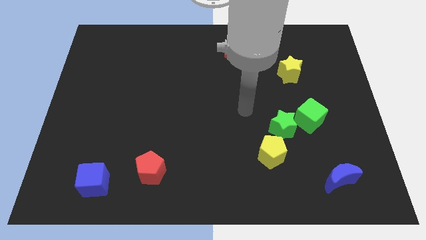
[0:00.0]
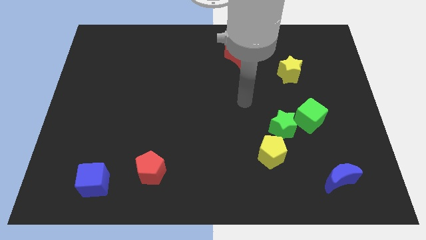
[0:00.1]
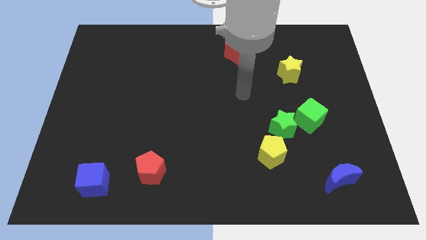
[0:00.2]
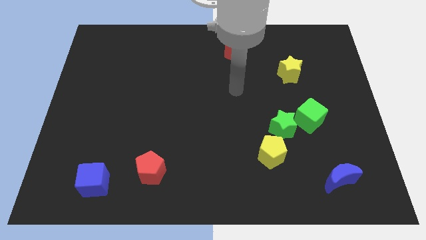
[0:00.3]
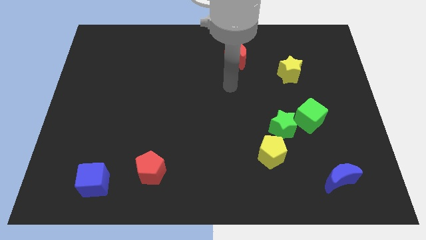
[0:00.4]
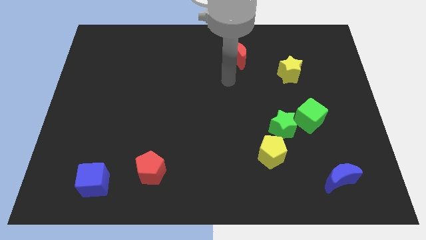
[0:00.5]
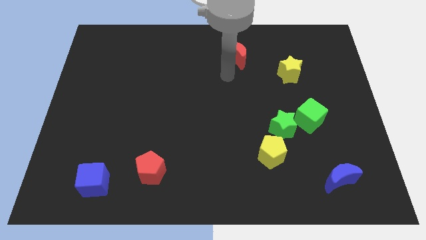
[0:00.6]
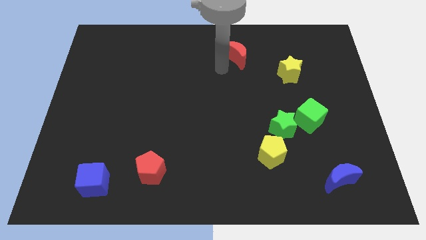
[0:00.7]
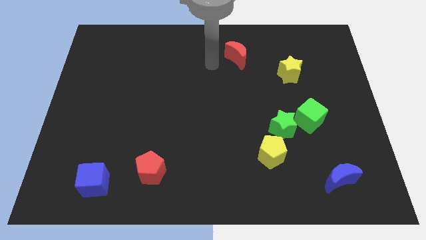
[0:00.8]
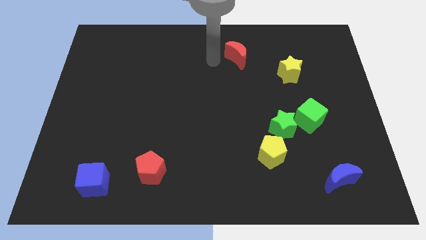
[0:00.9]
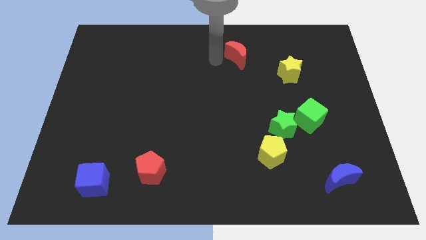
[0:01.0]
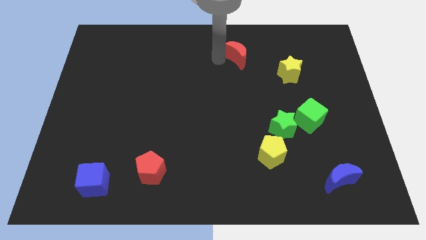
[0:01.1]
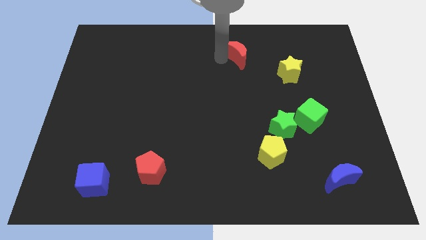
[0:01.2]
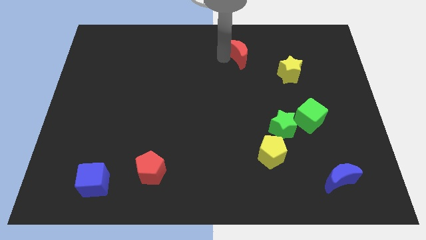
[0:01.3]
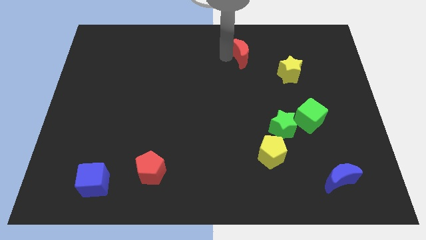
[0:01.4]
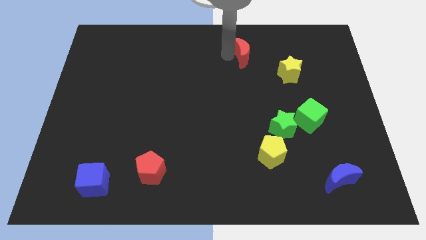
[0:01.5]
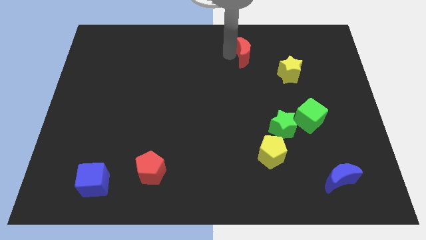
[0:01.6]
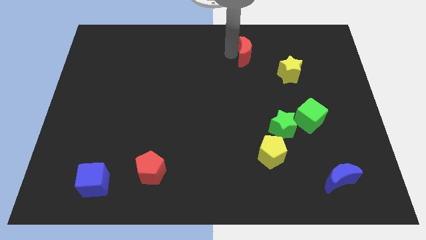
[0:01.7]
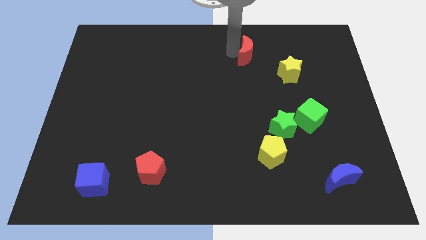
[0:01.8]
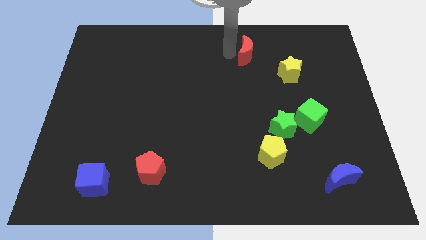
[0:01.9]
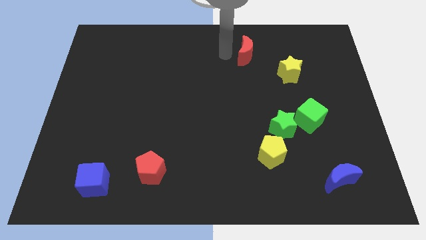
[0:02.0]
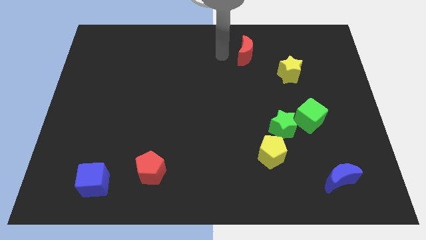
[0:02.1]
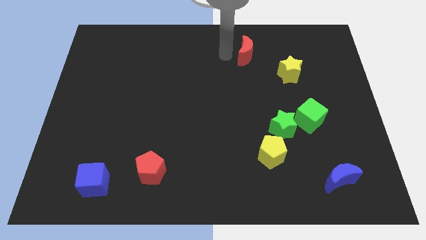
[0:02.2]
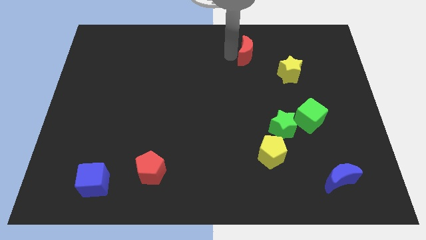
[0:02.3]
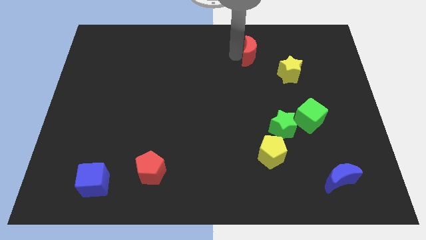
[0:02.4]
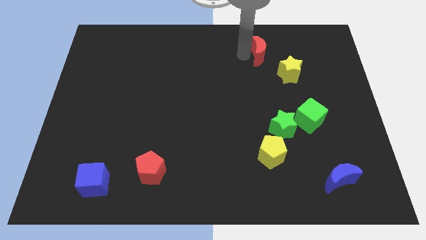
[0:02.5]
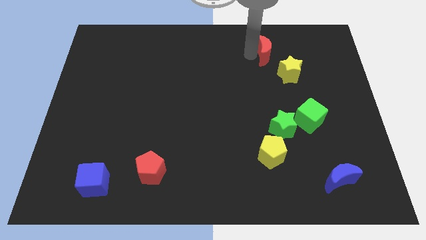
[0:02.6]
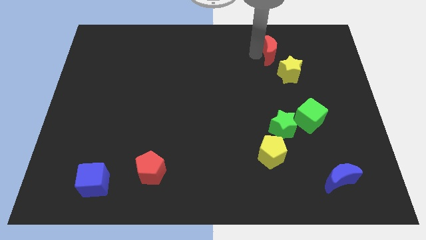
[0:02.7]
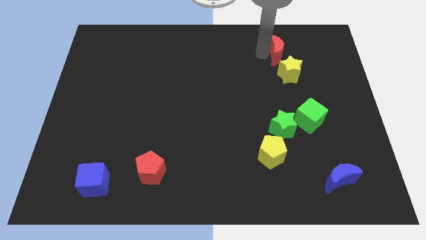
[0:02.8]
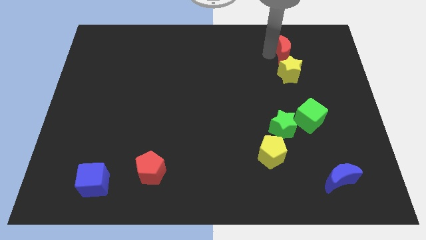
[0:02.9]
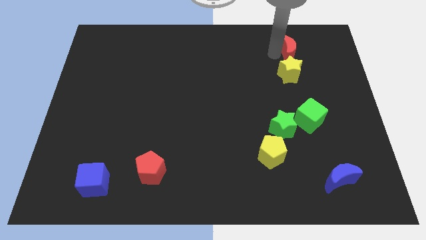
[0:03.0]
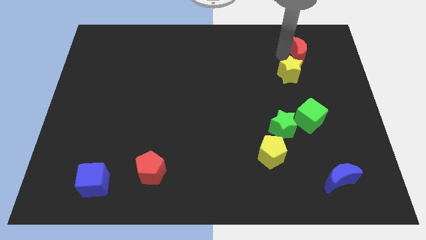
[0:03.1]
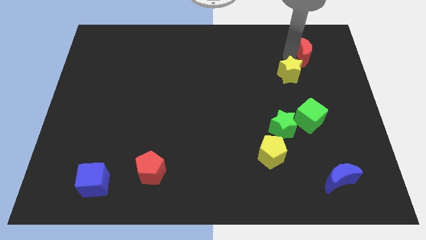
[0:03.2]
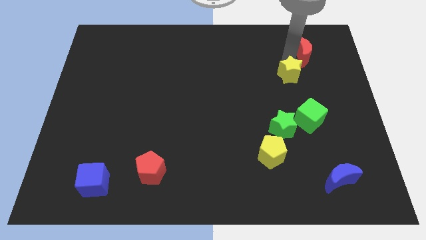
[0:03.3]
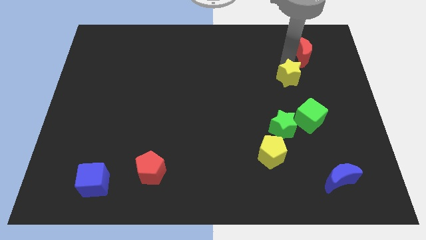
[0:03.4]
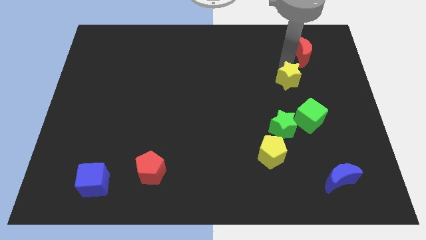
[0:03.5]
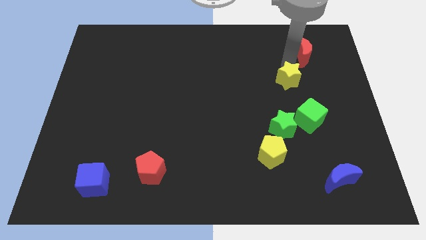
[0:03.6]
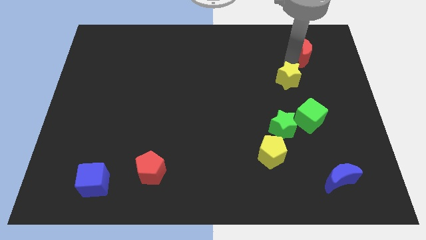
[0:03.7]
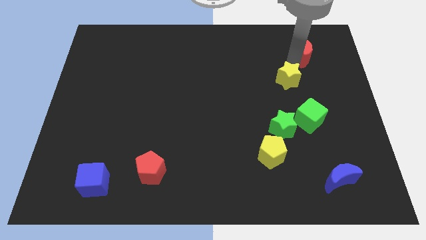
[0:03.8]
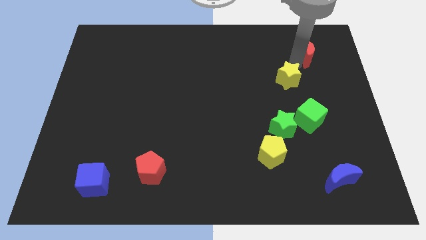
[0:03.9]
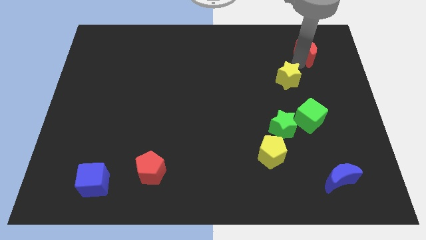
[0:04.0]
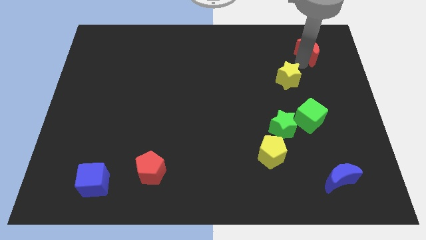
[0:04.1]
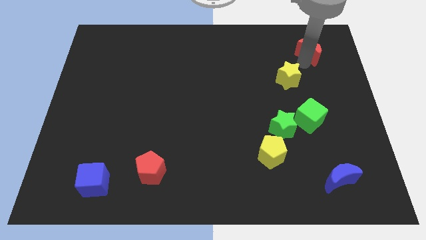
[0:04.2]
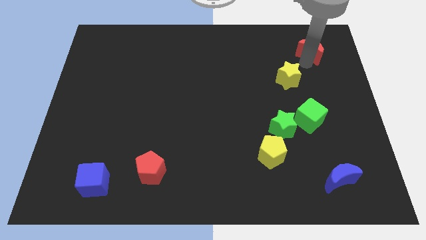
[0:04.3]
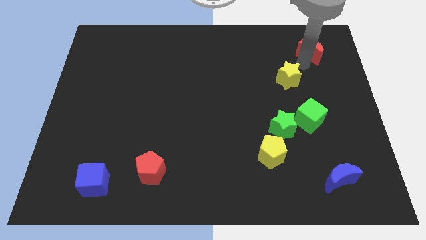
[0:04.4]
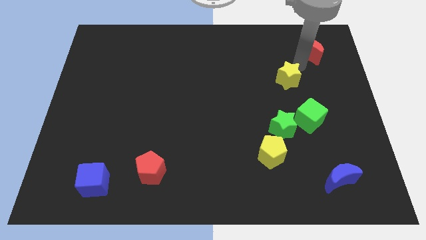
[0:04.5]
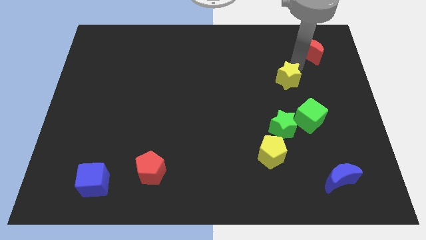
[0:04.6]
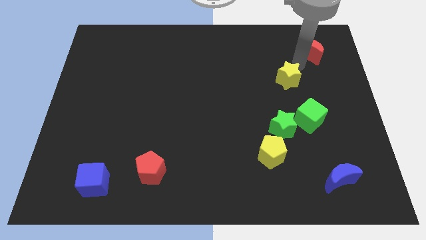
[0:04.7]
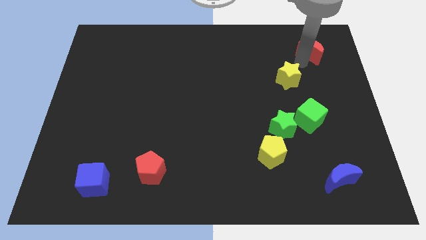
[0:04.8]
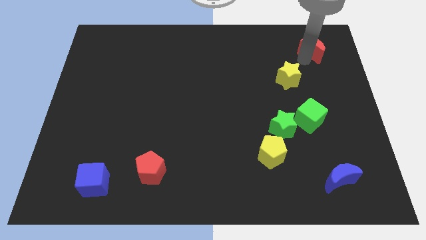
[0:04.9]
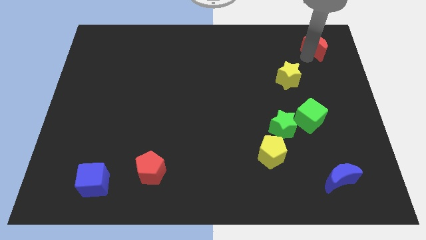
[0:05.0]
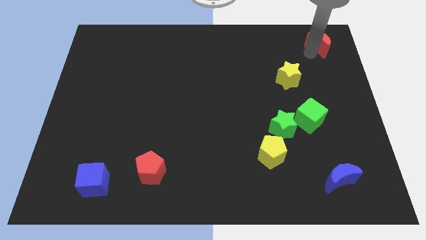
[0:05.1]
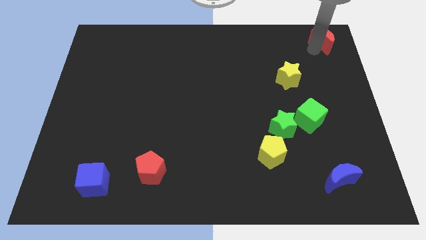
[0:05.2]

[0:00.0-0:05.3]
put the red moon to the upper right corner

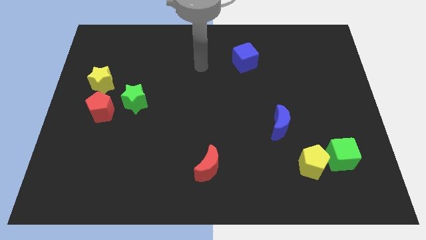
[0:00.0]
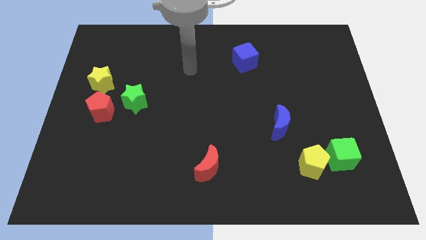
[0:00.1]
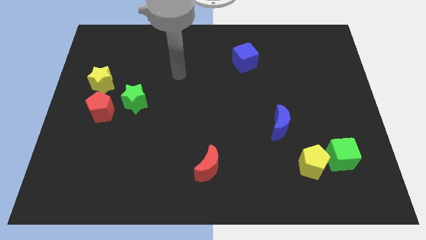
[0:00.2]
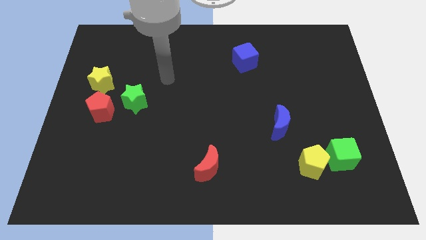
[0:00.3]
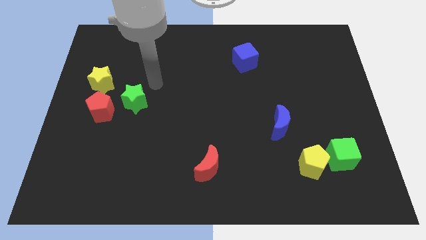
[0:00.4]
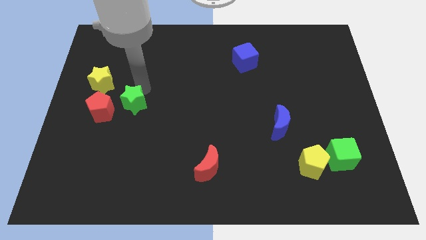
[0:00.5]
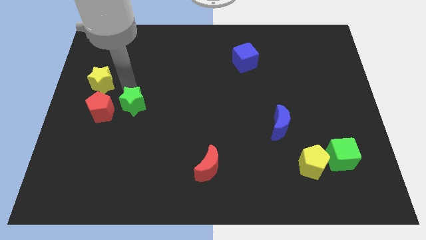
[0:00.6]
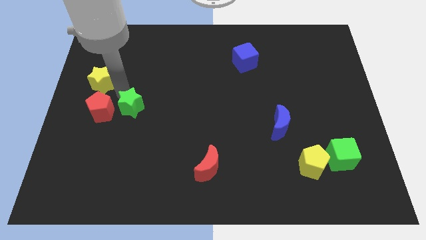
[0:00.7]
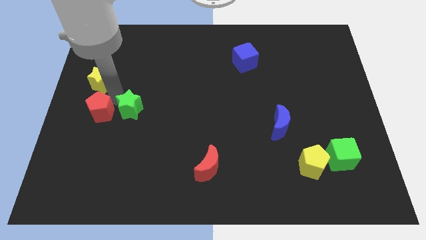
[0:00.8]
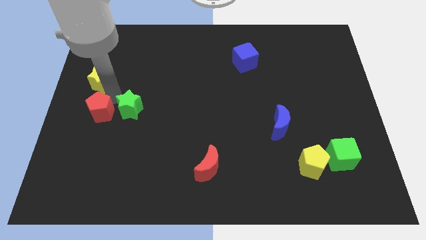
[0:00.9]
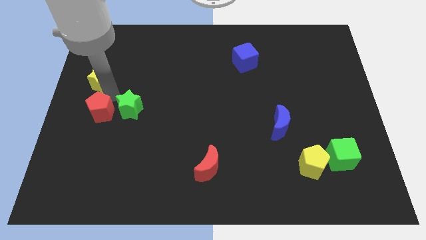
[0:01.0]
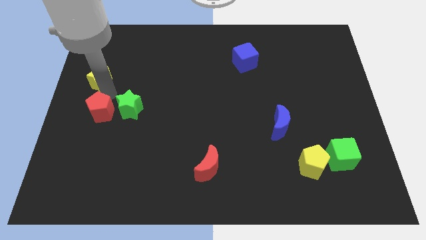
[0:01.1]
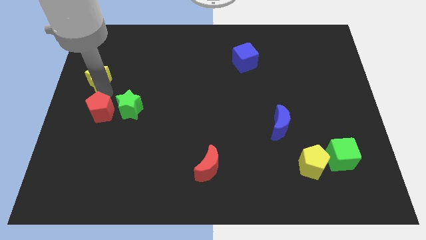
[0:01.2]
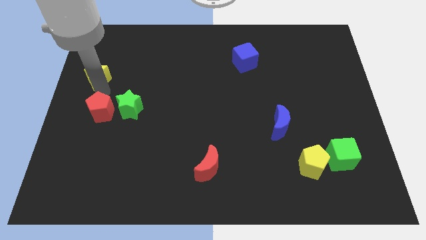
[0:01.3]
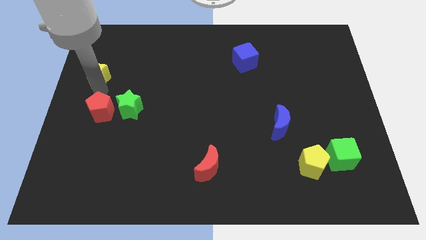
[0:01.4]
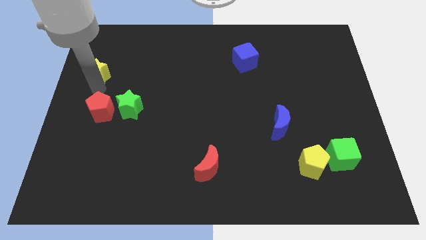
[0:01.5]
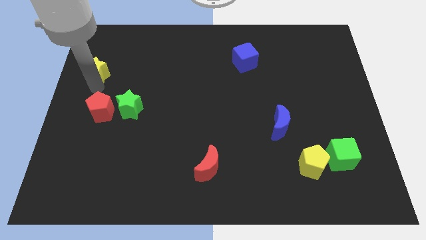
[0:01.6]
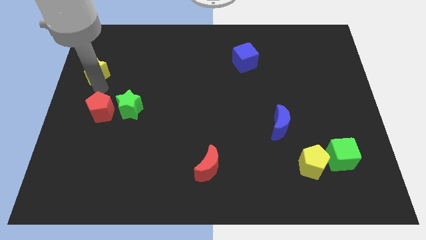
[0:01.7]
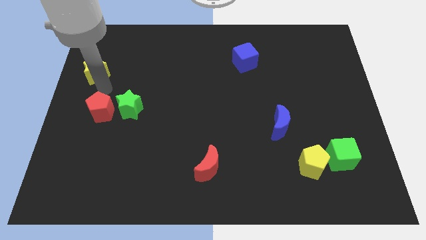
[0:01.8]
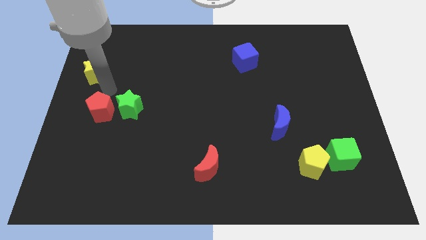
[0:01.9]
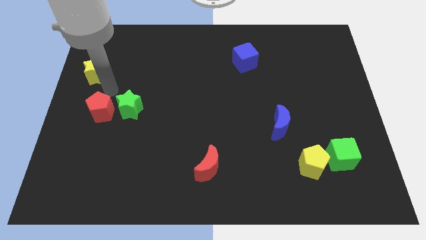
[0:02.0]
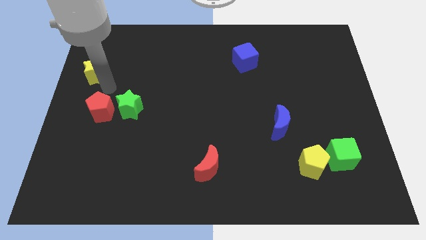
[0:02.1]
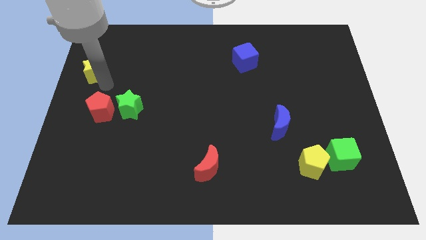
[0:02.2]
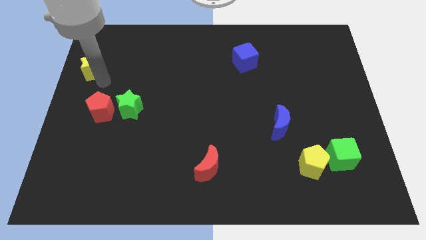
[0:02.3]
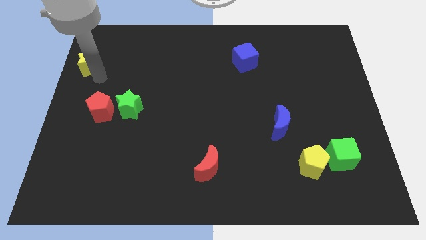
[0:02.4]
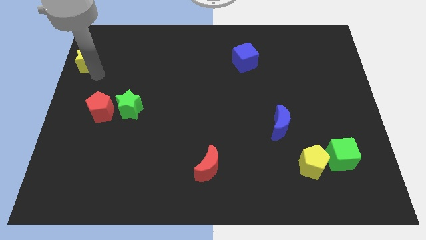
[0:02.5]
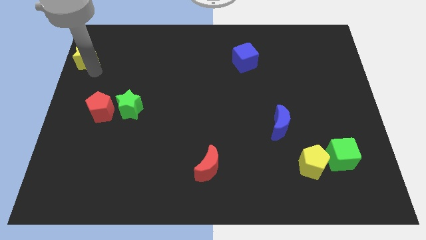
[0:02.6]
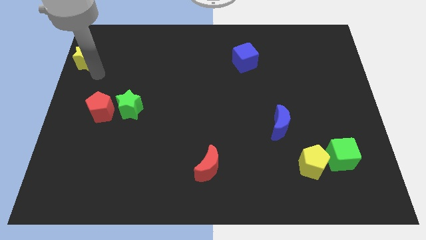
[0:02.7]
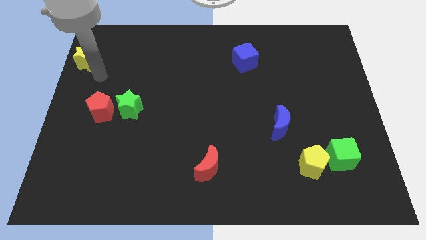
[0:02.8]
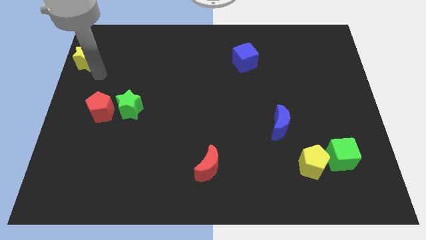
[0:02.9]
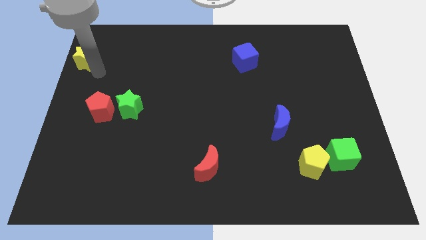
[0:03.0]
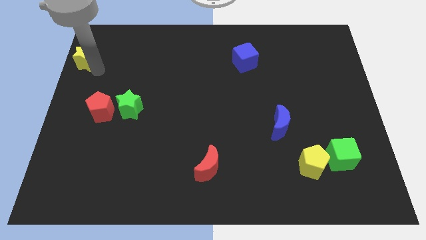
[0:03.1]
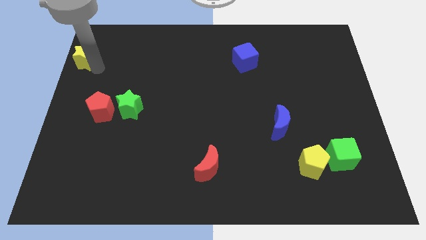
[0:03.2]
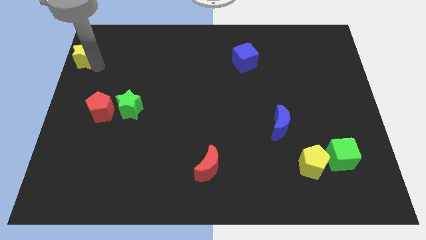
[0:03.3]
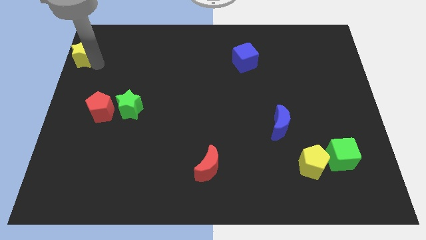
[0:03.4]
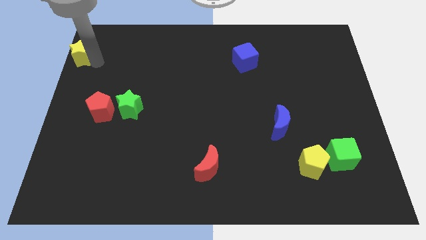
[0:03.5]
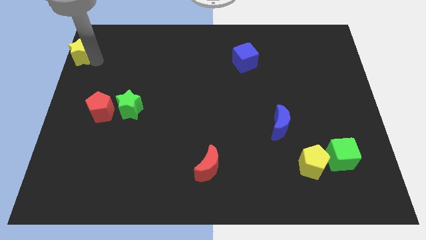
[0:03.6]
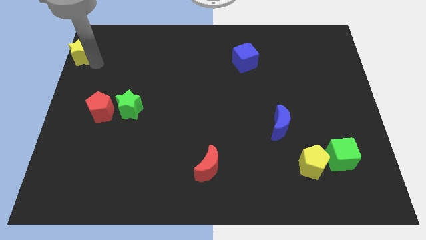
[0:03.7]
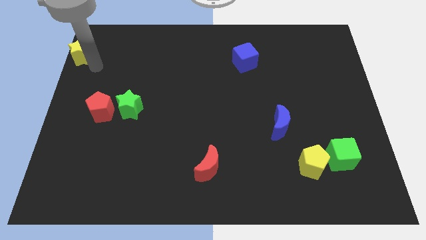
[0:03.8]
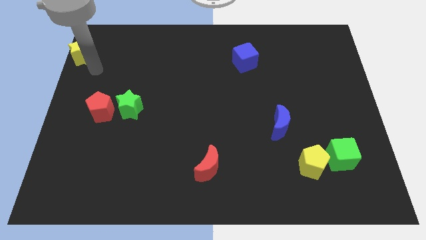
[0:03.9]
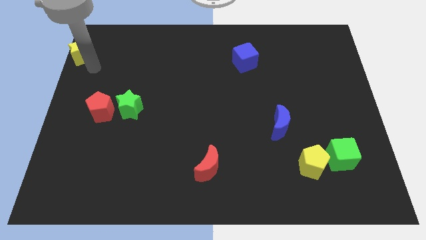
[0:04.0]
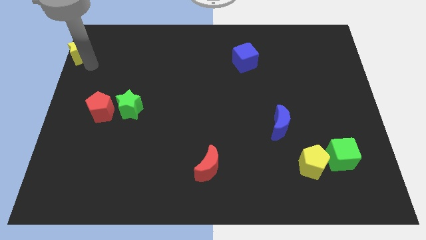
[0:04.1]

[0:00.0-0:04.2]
slide the yellow star to the upper left corner
